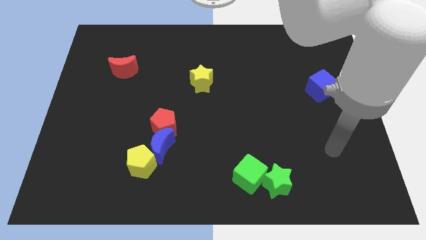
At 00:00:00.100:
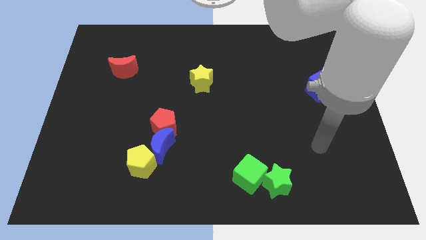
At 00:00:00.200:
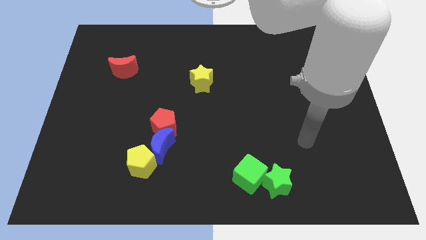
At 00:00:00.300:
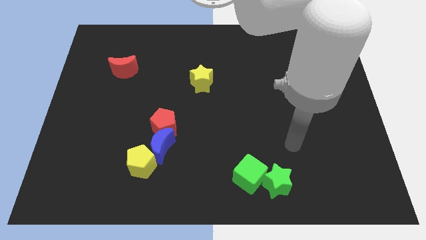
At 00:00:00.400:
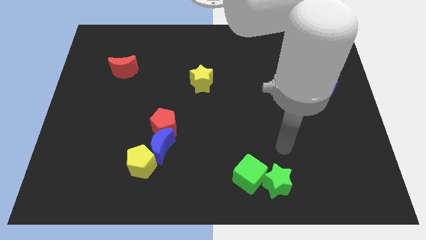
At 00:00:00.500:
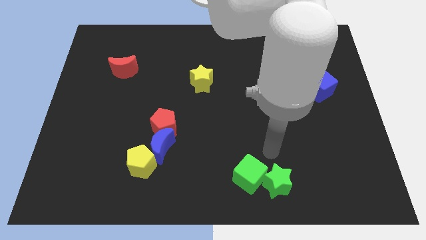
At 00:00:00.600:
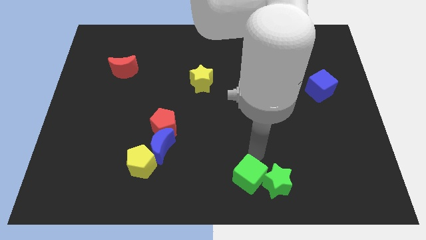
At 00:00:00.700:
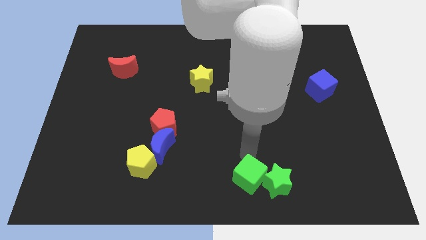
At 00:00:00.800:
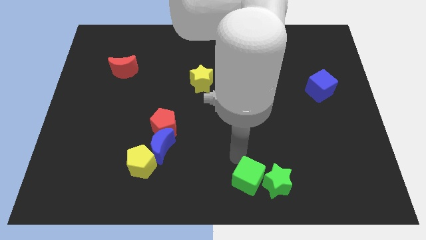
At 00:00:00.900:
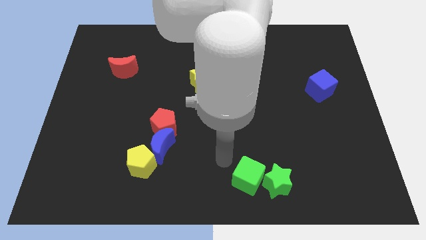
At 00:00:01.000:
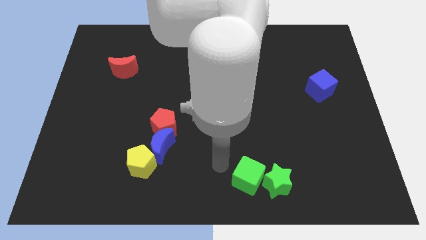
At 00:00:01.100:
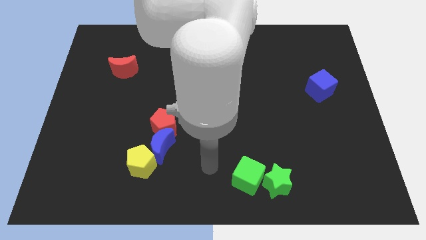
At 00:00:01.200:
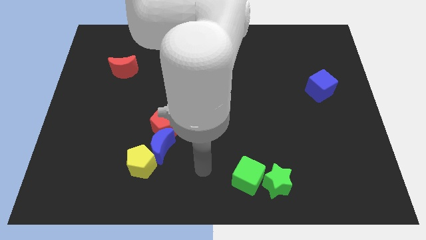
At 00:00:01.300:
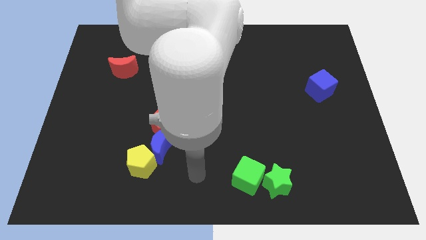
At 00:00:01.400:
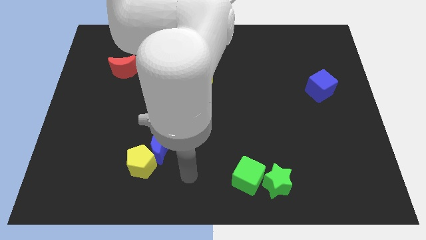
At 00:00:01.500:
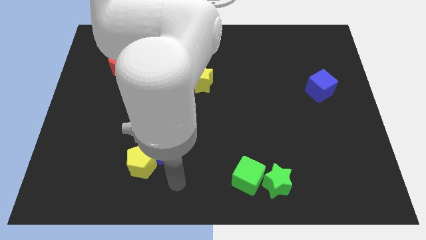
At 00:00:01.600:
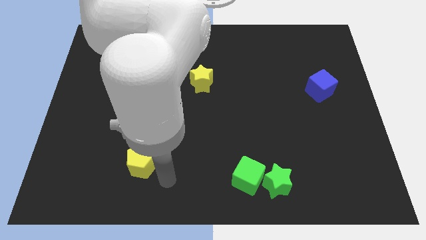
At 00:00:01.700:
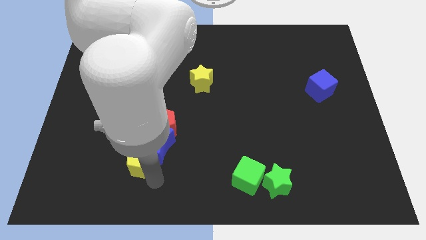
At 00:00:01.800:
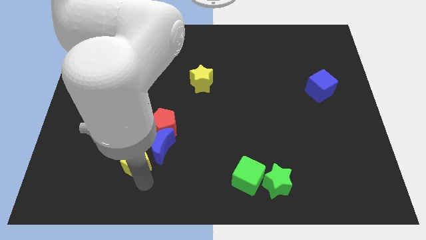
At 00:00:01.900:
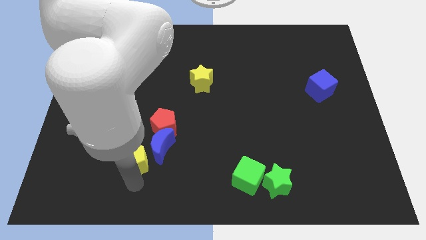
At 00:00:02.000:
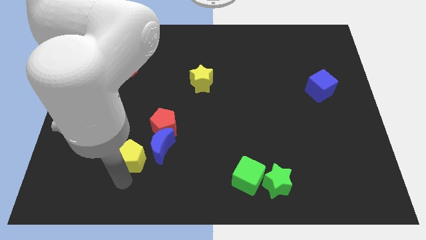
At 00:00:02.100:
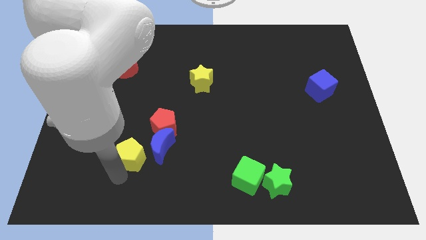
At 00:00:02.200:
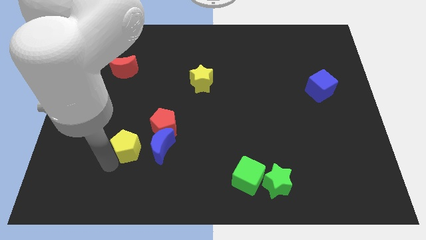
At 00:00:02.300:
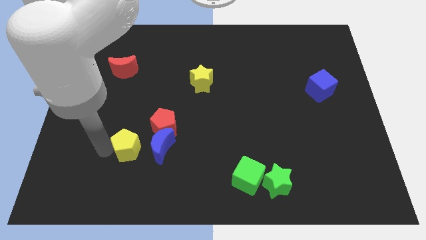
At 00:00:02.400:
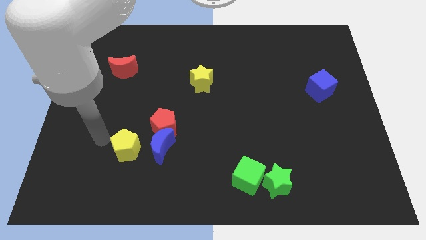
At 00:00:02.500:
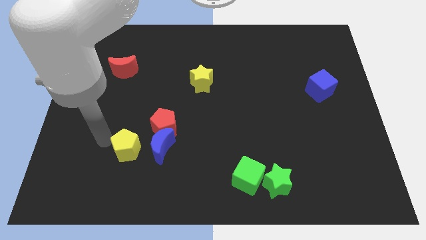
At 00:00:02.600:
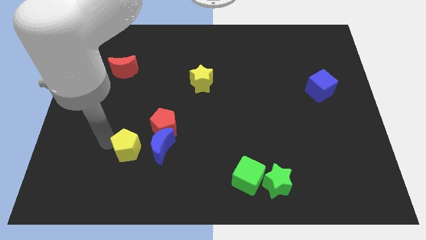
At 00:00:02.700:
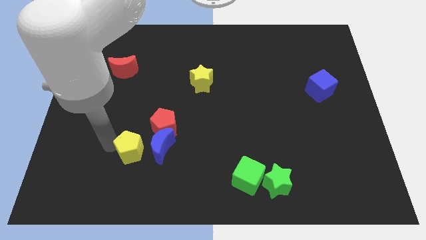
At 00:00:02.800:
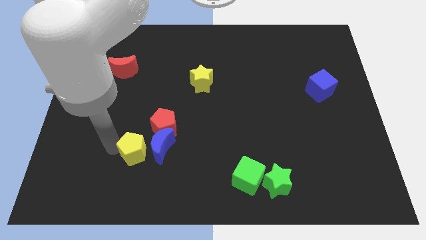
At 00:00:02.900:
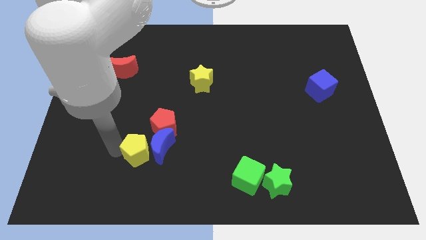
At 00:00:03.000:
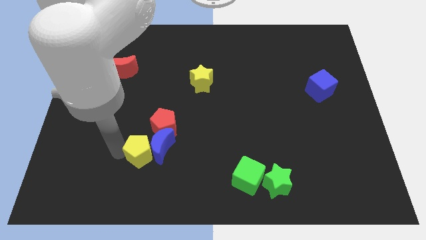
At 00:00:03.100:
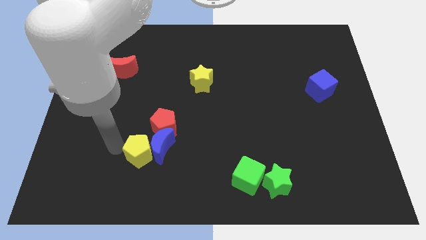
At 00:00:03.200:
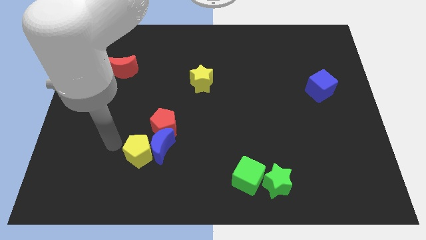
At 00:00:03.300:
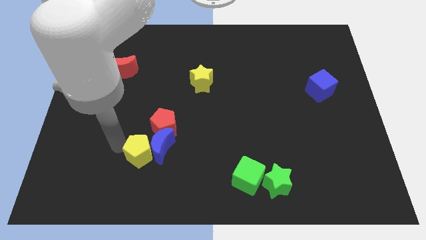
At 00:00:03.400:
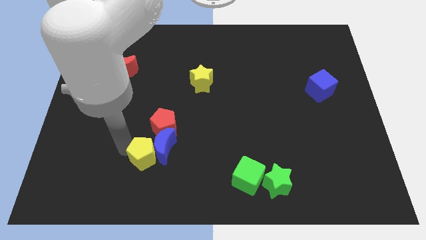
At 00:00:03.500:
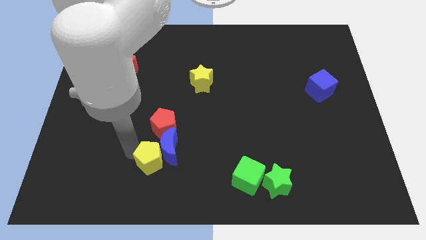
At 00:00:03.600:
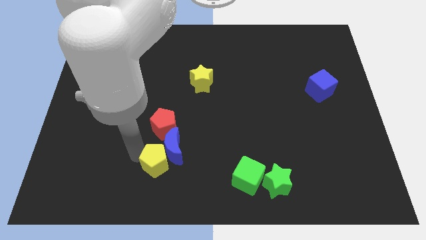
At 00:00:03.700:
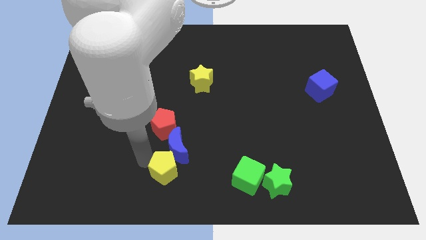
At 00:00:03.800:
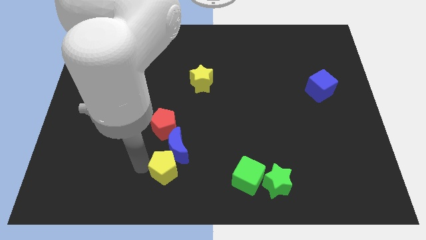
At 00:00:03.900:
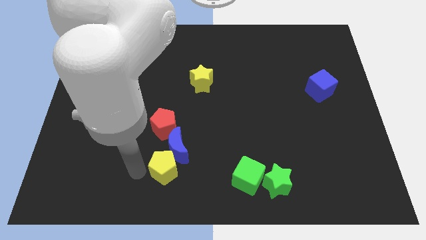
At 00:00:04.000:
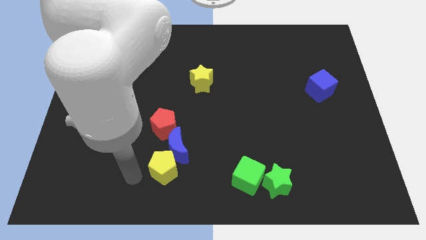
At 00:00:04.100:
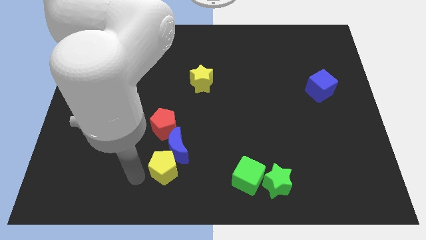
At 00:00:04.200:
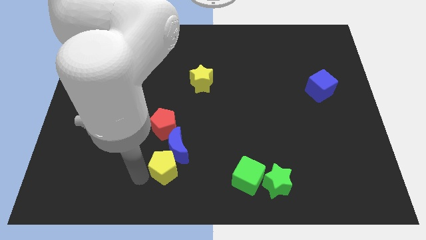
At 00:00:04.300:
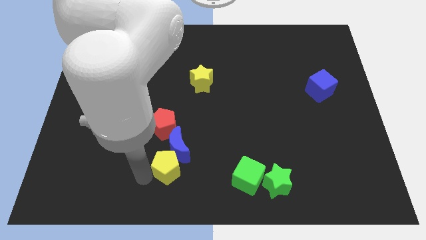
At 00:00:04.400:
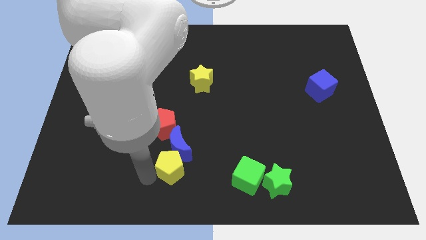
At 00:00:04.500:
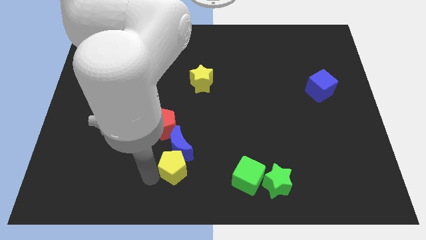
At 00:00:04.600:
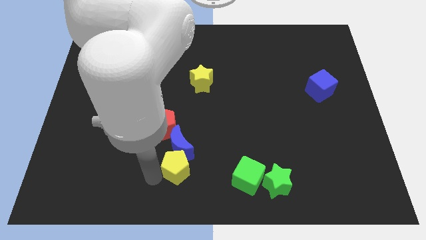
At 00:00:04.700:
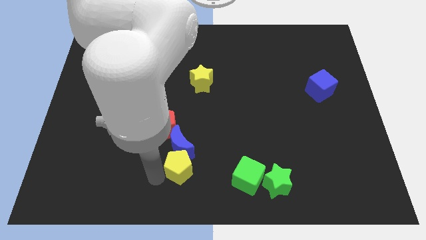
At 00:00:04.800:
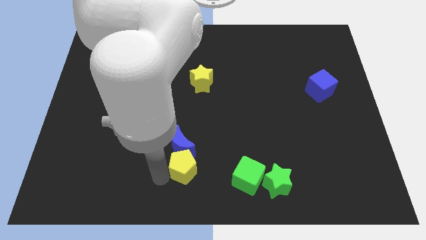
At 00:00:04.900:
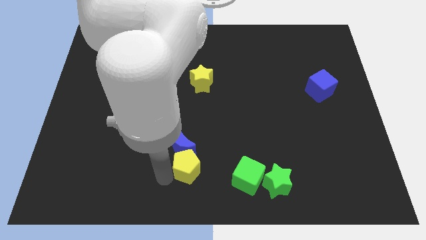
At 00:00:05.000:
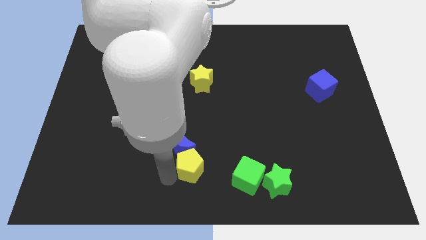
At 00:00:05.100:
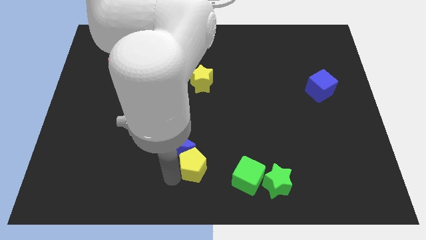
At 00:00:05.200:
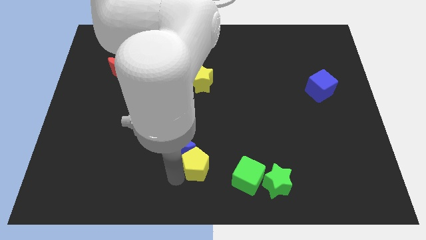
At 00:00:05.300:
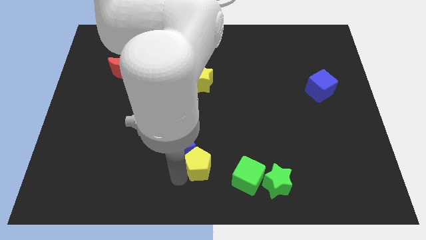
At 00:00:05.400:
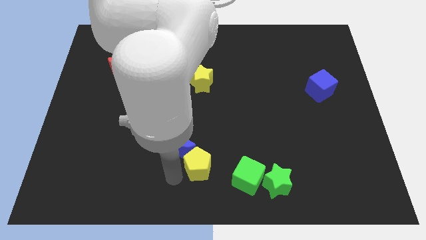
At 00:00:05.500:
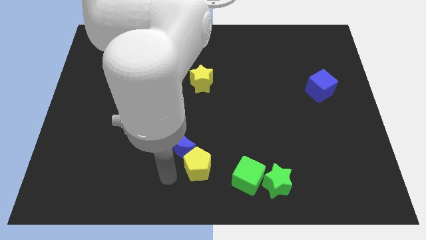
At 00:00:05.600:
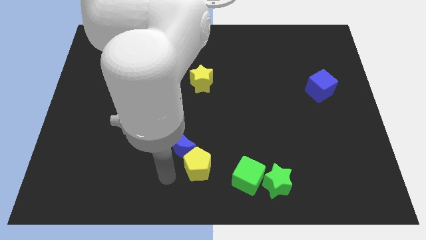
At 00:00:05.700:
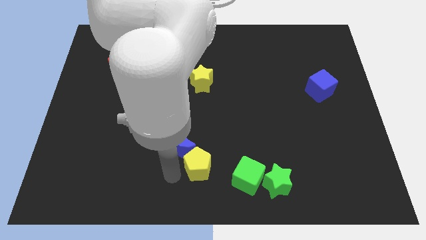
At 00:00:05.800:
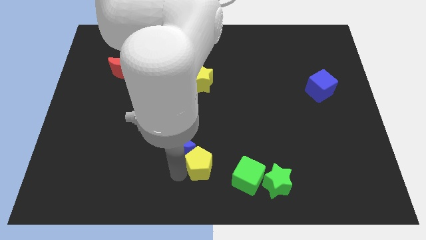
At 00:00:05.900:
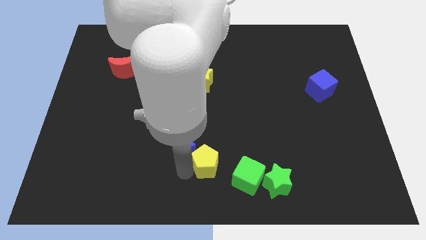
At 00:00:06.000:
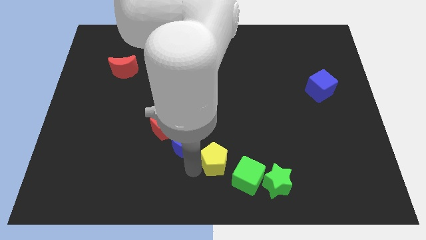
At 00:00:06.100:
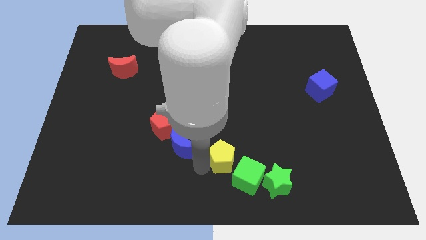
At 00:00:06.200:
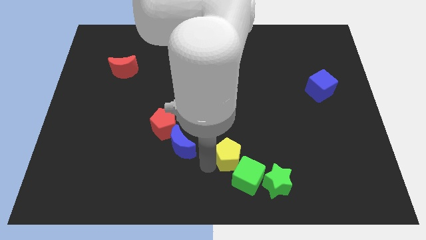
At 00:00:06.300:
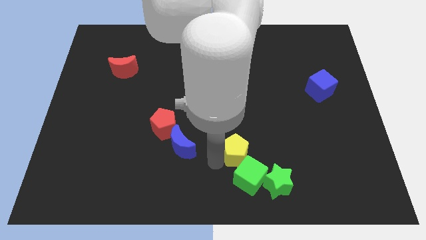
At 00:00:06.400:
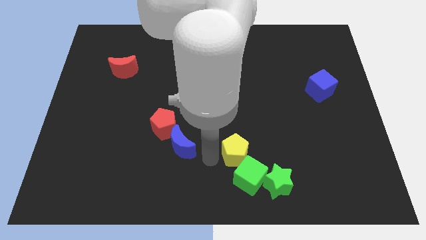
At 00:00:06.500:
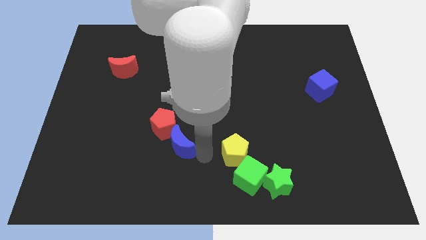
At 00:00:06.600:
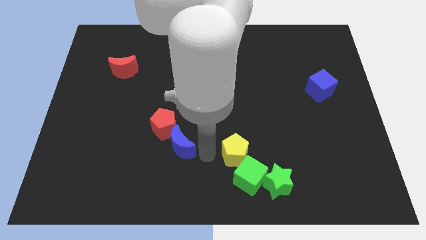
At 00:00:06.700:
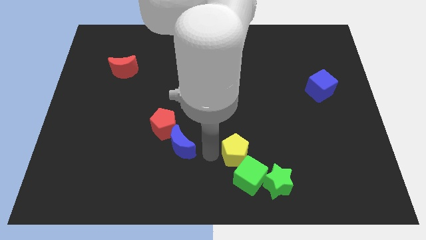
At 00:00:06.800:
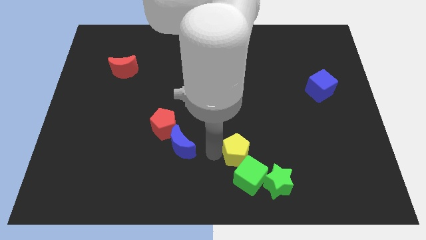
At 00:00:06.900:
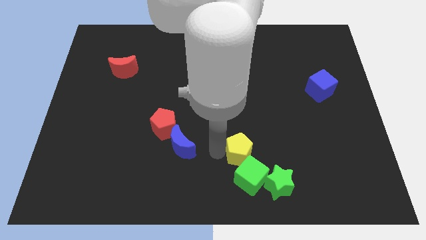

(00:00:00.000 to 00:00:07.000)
slide the yellow pentagon right

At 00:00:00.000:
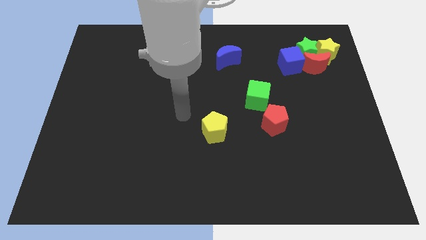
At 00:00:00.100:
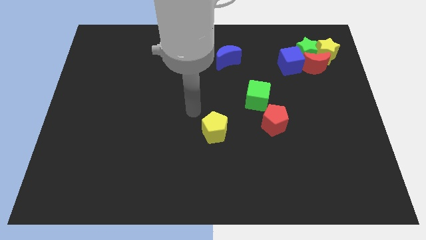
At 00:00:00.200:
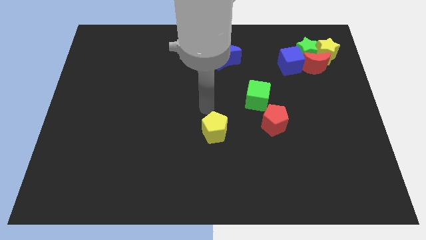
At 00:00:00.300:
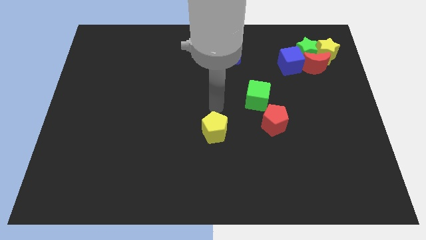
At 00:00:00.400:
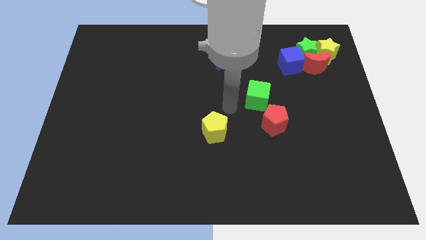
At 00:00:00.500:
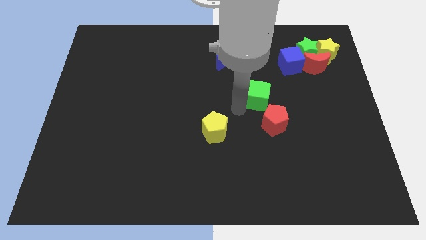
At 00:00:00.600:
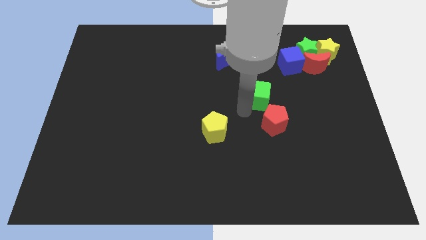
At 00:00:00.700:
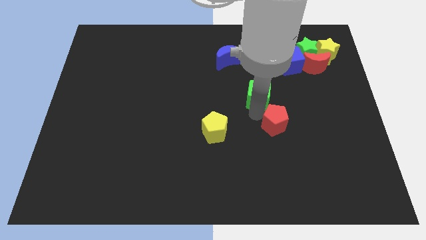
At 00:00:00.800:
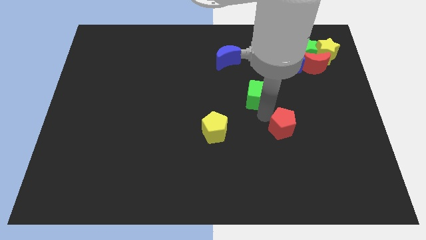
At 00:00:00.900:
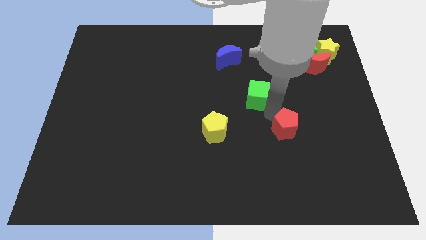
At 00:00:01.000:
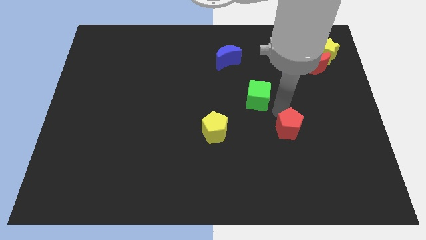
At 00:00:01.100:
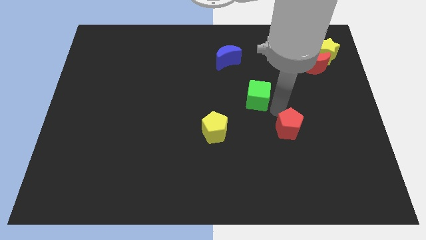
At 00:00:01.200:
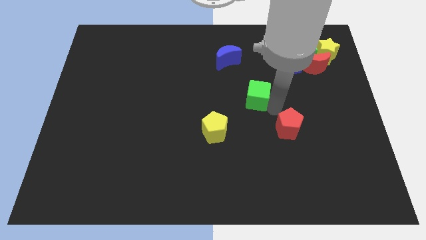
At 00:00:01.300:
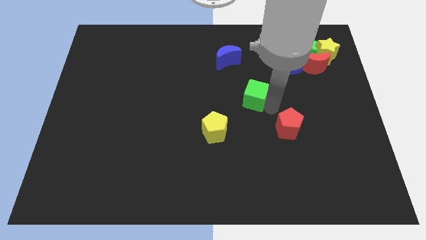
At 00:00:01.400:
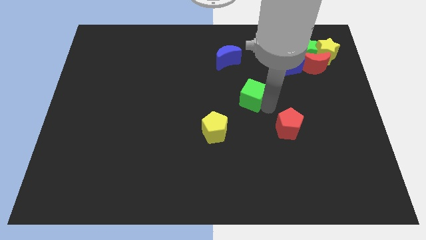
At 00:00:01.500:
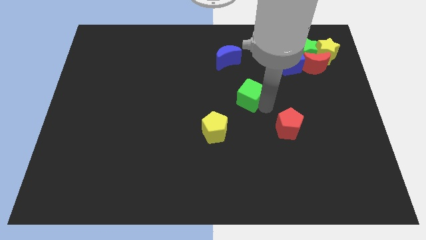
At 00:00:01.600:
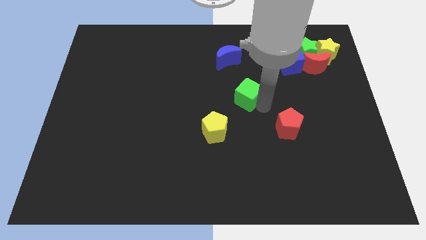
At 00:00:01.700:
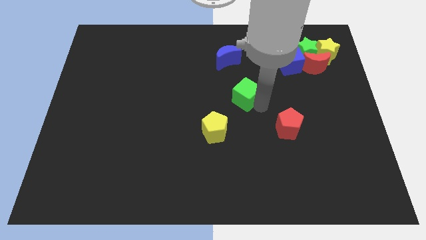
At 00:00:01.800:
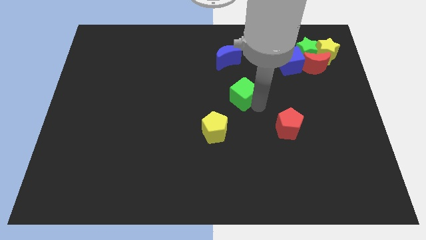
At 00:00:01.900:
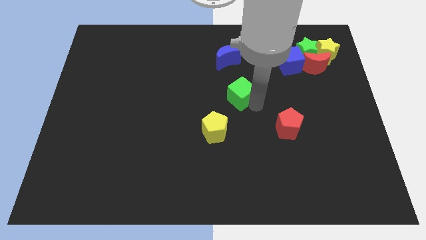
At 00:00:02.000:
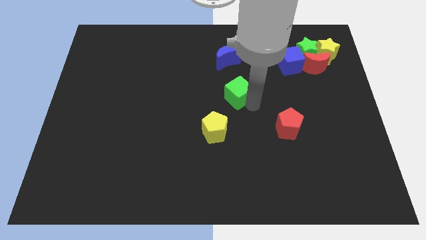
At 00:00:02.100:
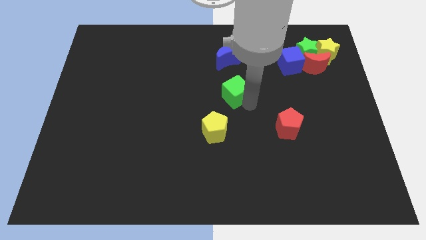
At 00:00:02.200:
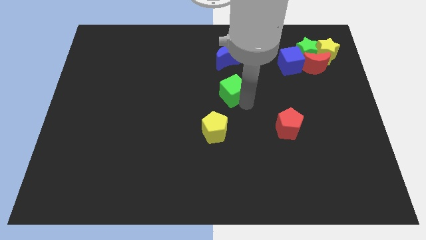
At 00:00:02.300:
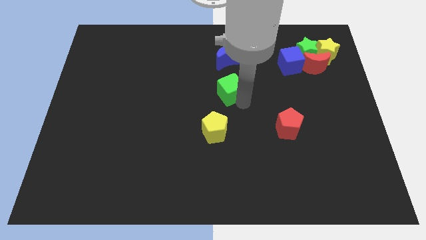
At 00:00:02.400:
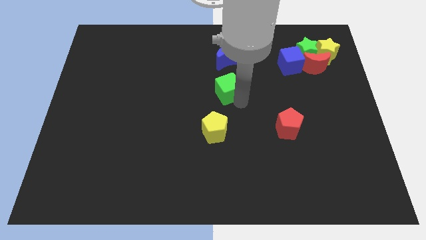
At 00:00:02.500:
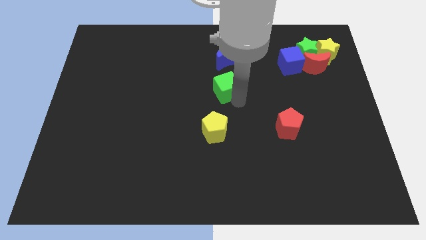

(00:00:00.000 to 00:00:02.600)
slightly move the green cube upwards and left
